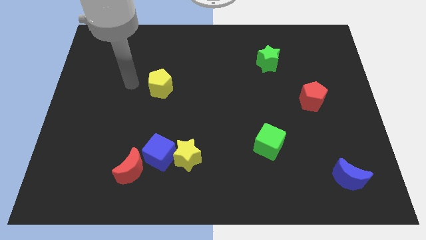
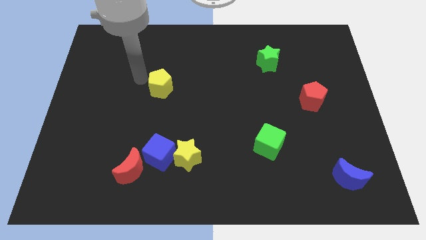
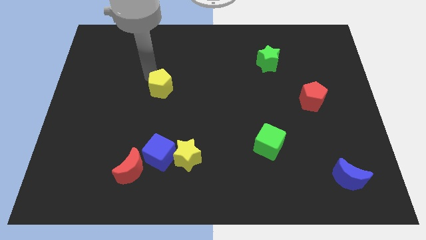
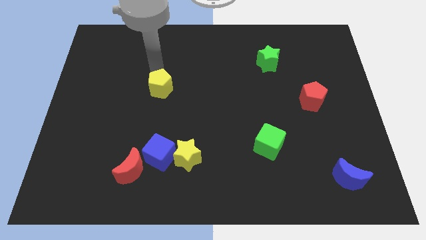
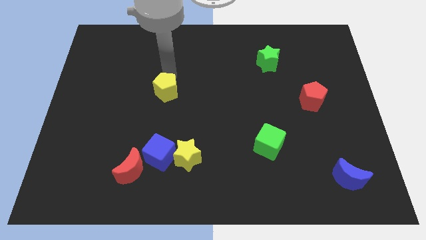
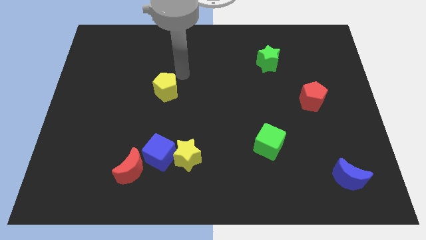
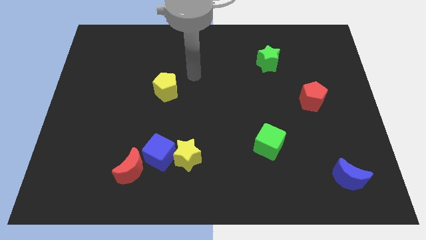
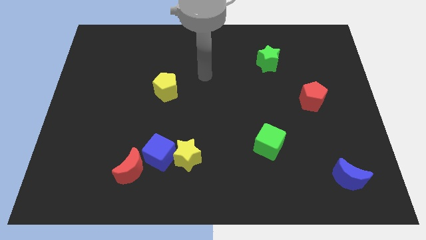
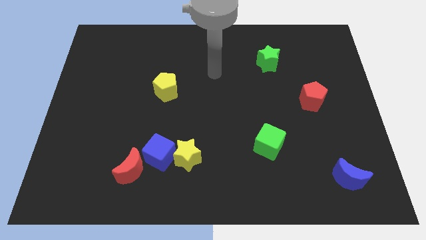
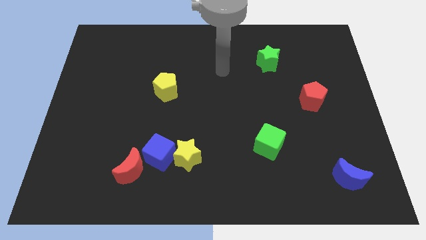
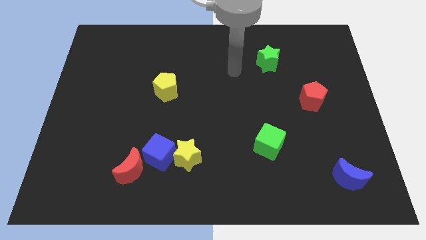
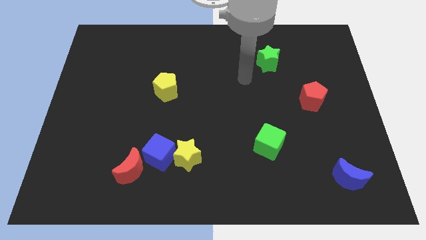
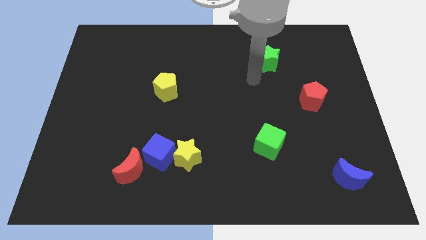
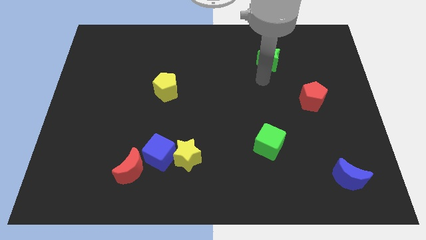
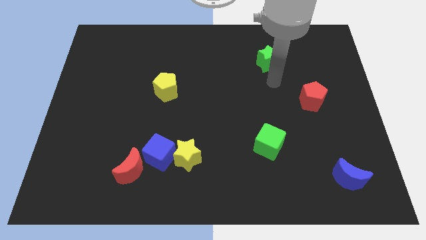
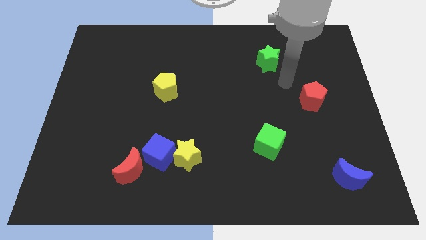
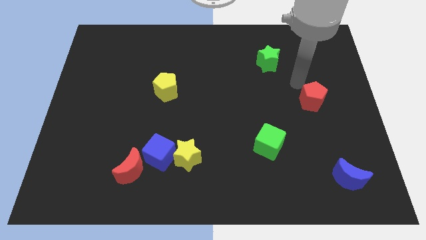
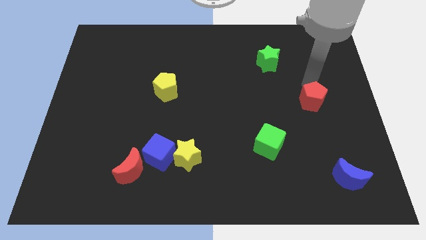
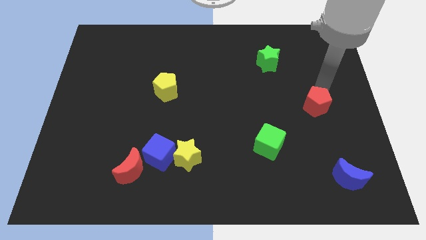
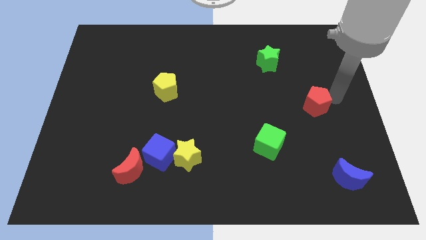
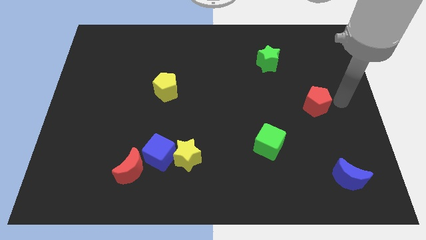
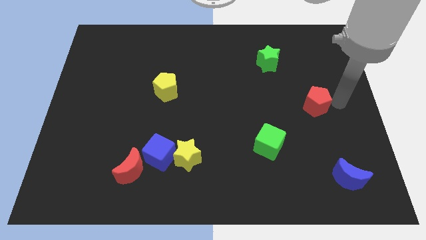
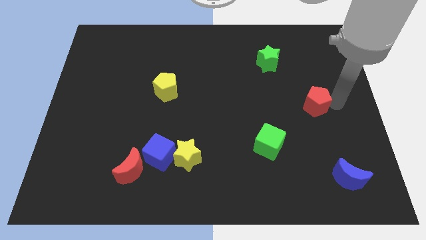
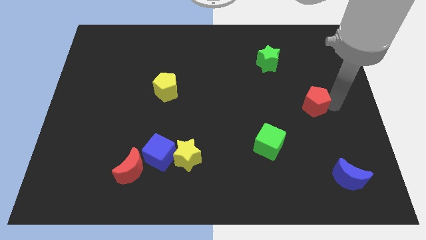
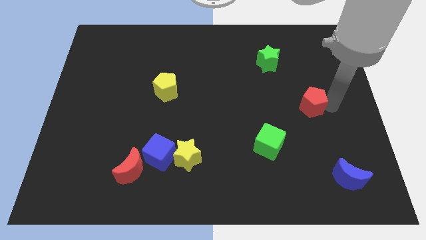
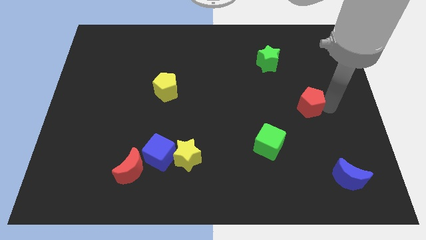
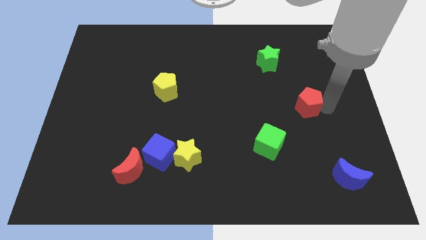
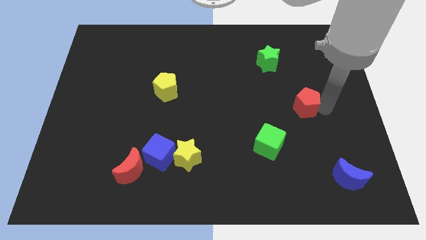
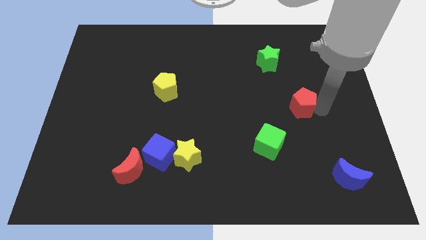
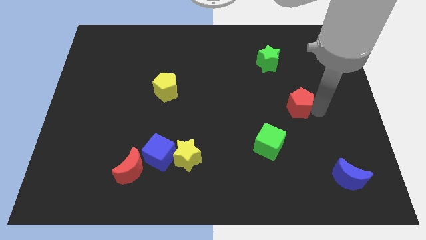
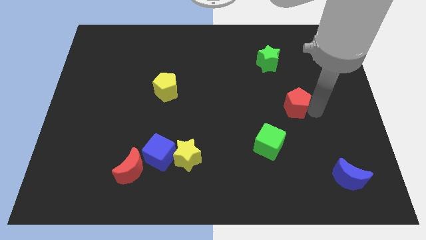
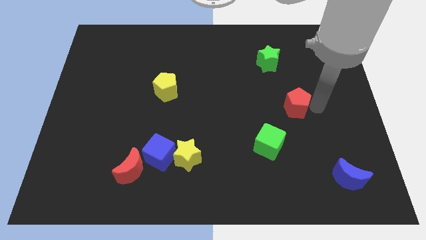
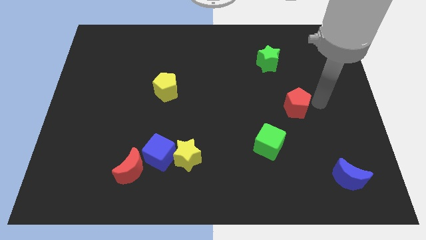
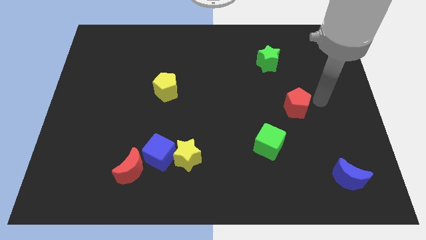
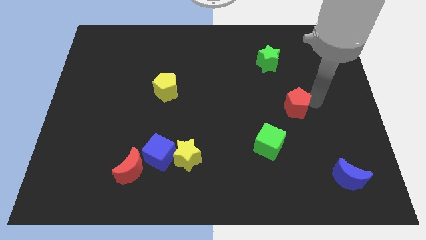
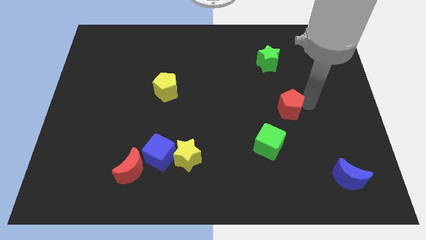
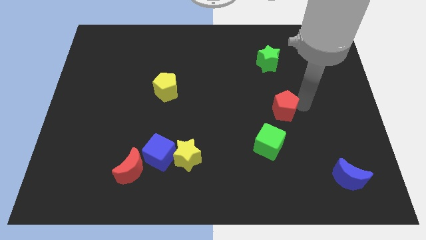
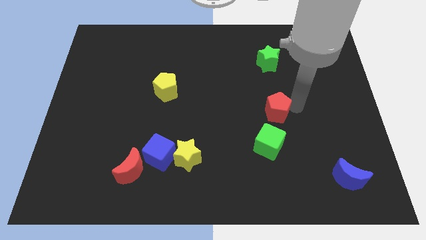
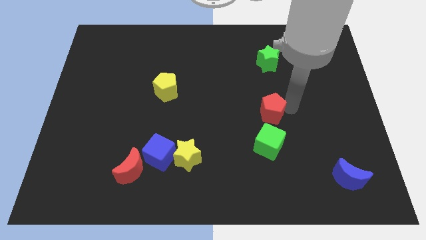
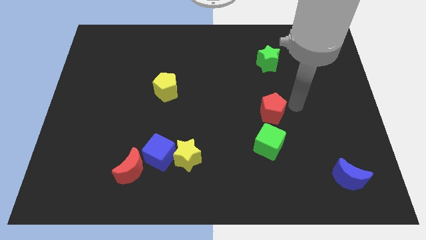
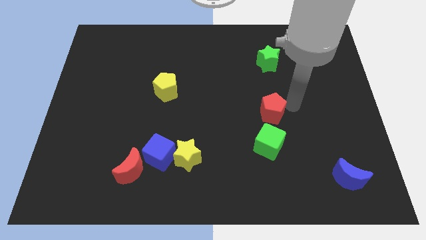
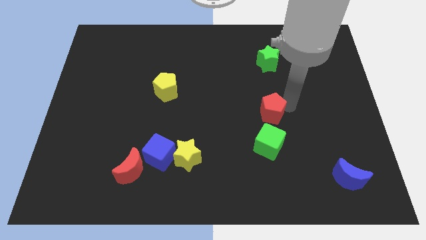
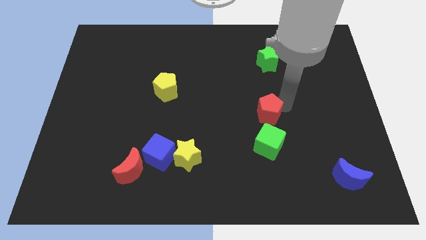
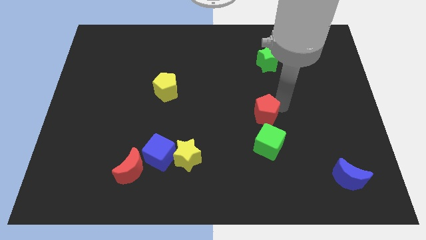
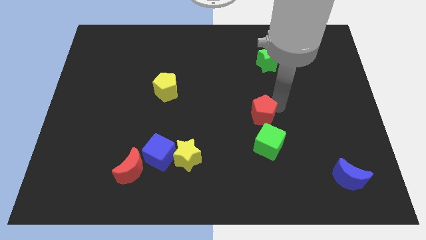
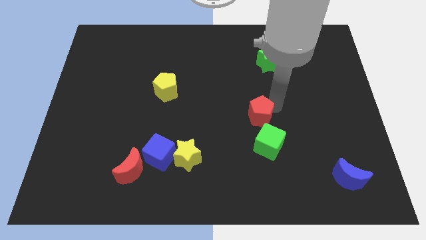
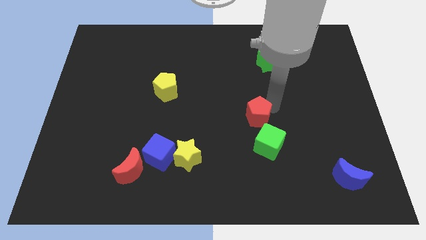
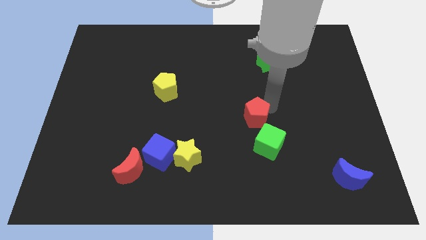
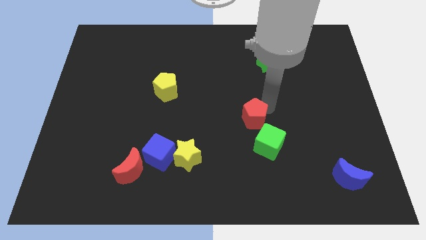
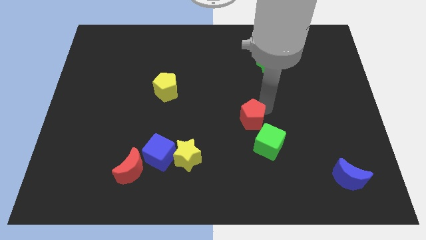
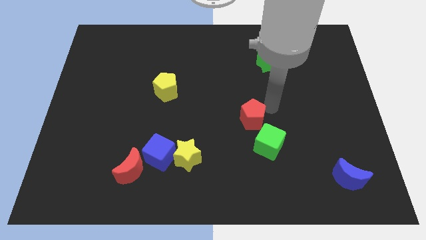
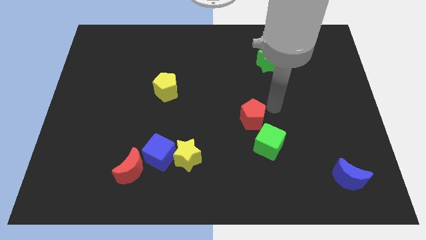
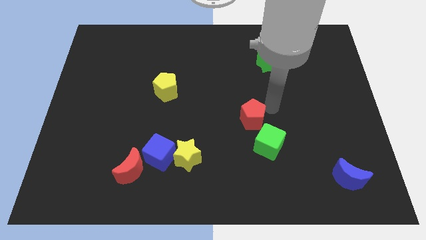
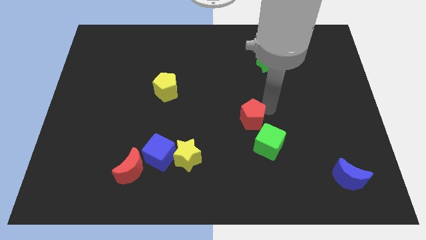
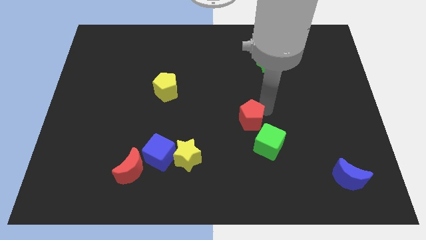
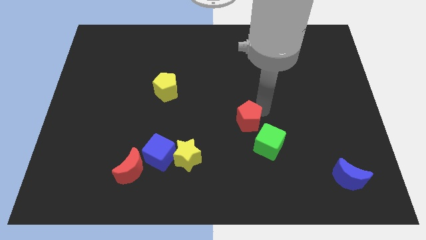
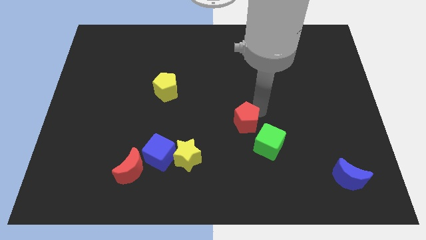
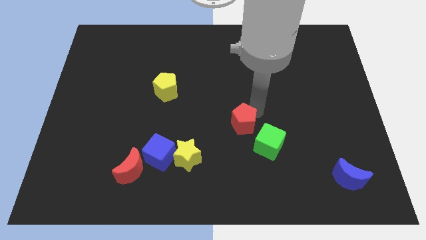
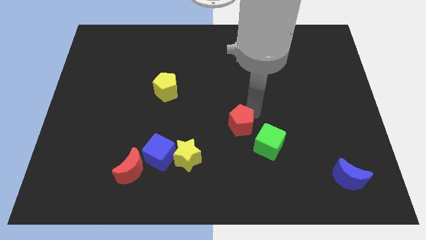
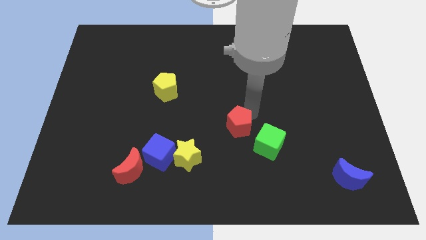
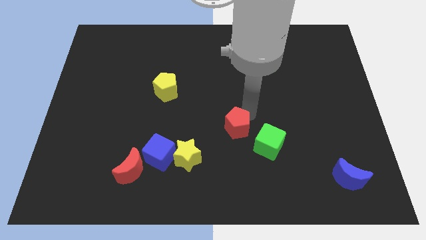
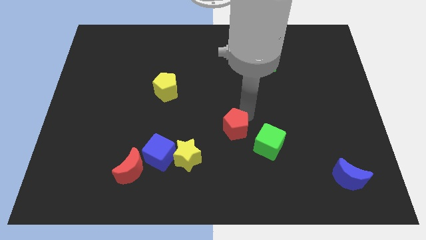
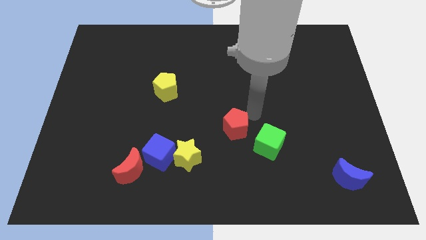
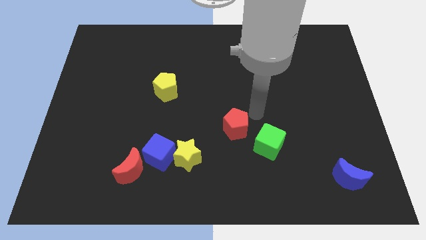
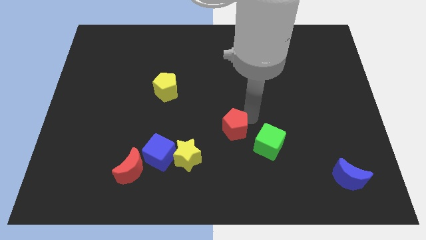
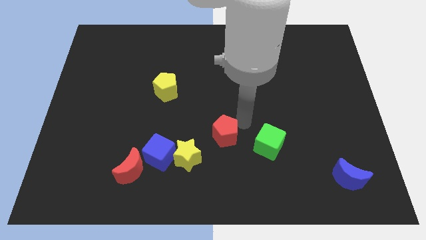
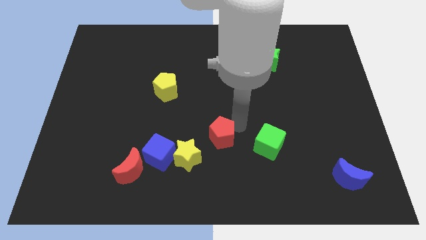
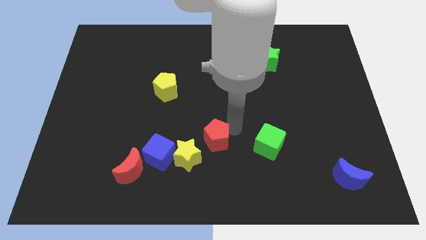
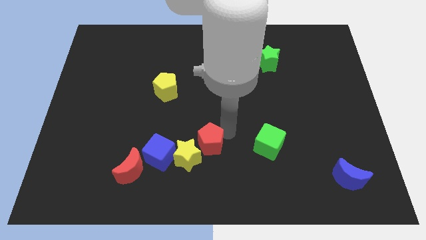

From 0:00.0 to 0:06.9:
slide the red pentagon close to the yellow star
